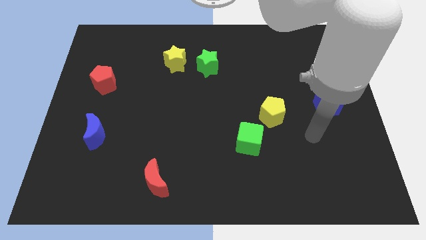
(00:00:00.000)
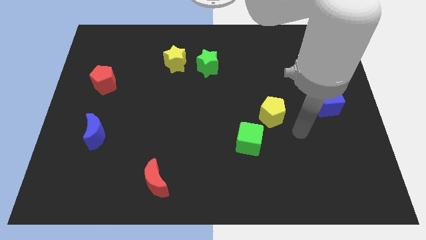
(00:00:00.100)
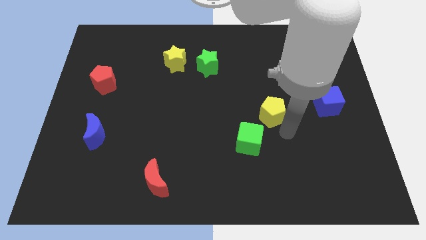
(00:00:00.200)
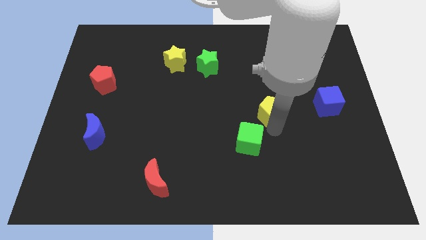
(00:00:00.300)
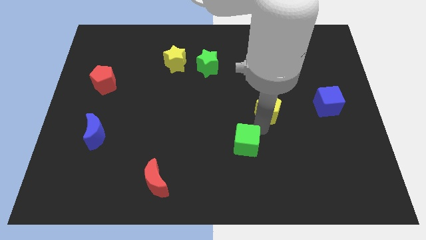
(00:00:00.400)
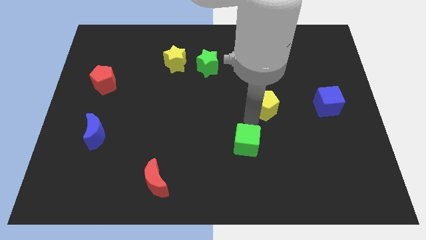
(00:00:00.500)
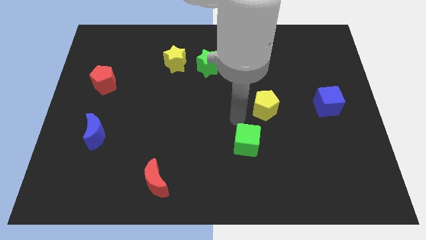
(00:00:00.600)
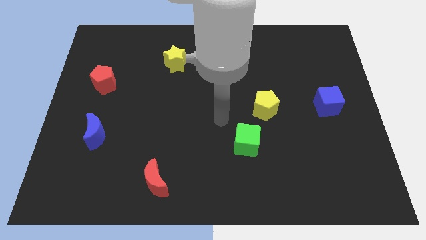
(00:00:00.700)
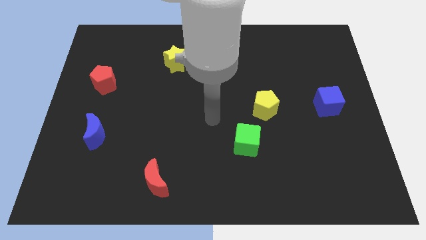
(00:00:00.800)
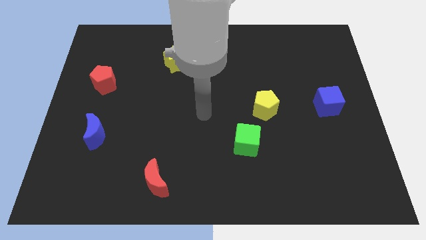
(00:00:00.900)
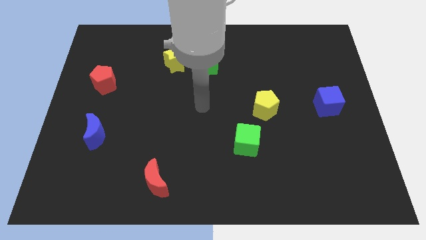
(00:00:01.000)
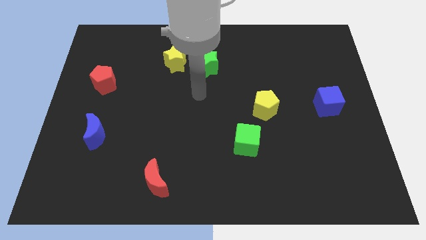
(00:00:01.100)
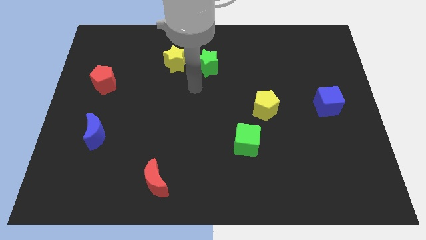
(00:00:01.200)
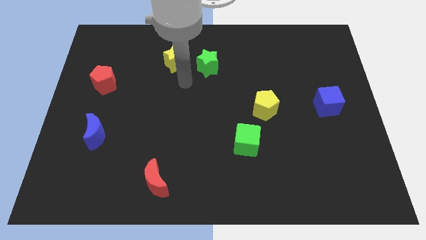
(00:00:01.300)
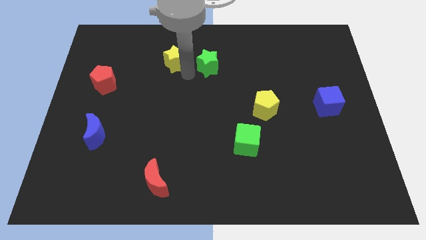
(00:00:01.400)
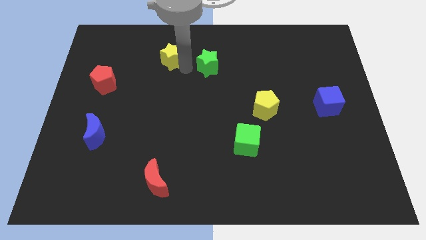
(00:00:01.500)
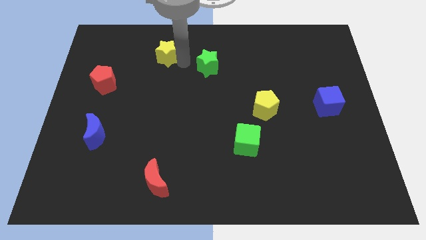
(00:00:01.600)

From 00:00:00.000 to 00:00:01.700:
pull the green star apart from the yellow star

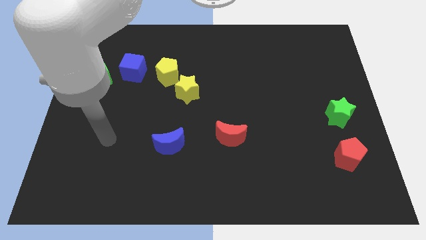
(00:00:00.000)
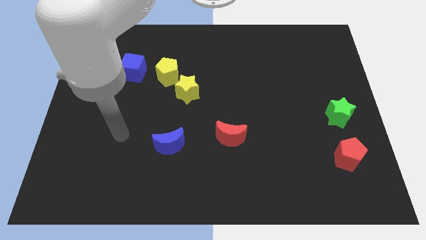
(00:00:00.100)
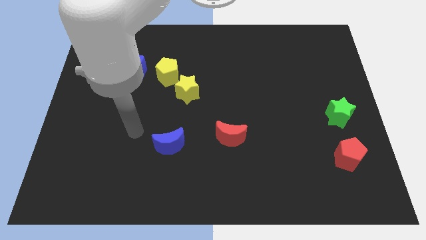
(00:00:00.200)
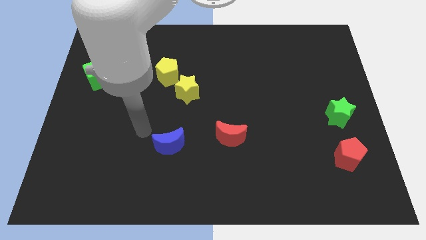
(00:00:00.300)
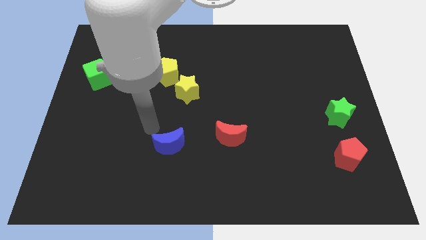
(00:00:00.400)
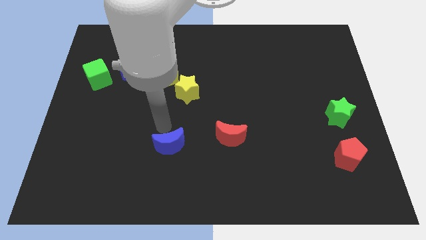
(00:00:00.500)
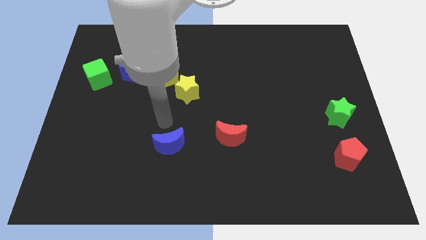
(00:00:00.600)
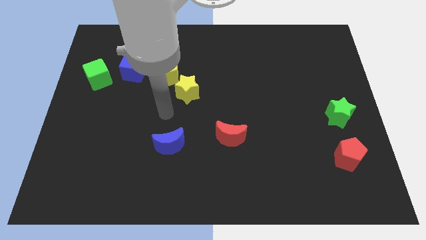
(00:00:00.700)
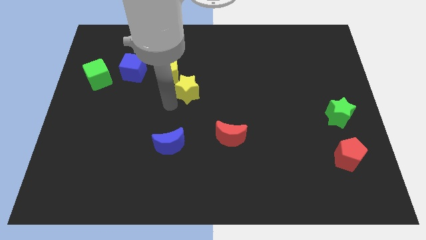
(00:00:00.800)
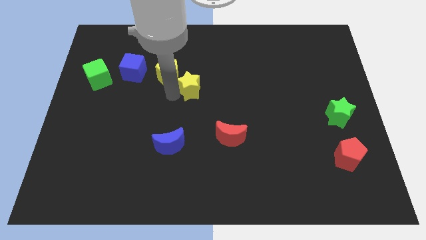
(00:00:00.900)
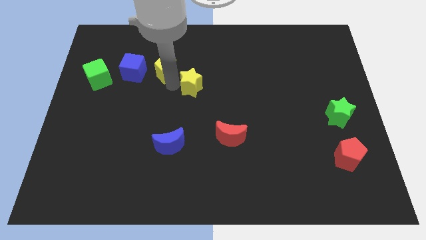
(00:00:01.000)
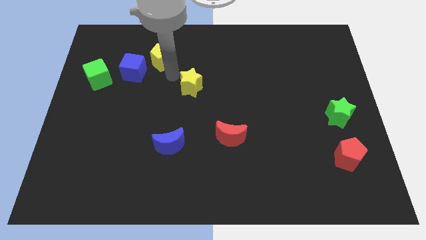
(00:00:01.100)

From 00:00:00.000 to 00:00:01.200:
pull the yellow star apart from the yellow pentagon

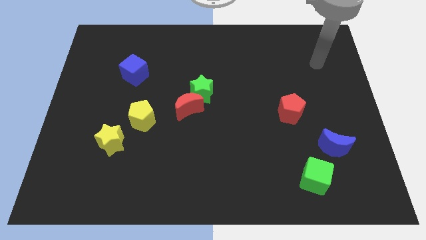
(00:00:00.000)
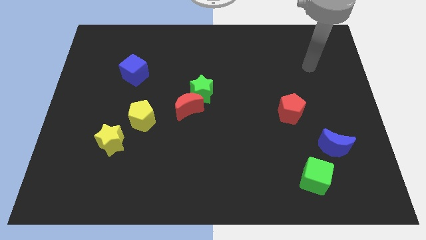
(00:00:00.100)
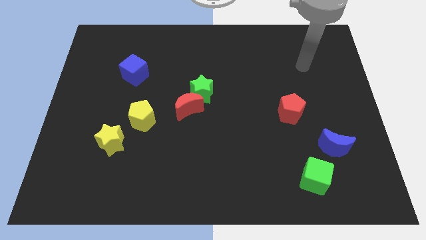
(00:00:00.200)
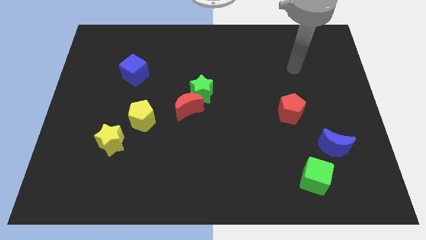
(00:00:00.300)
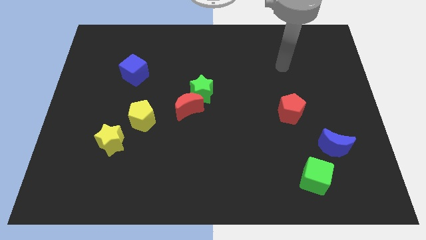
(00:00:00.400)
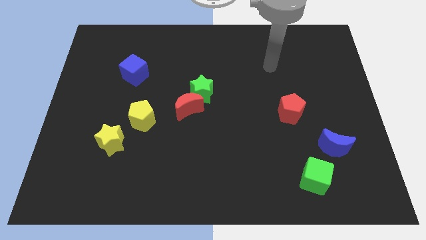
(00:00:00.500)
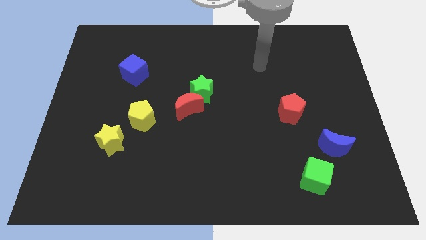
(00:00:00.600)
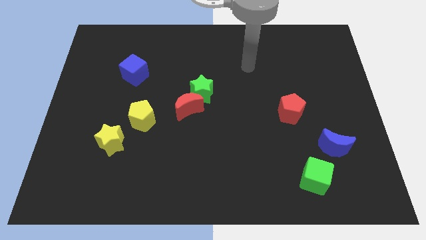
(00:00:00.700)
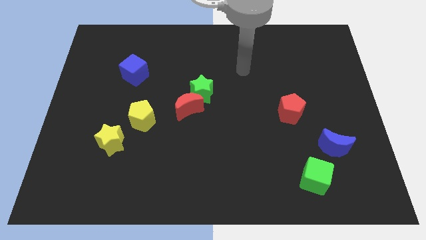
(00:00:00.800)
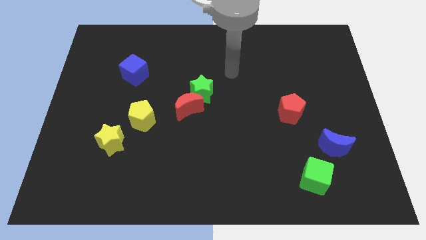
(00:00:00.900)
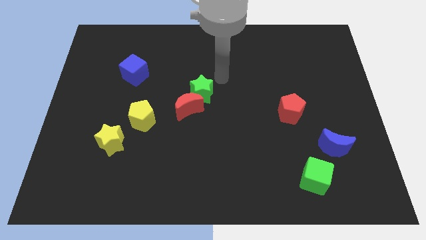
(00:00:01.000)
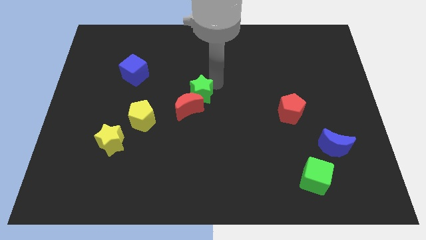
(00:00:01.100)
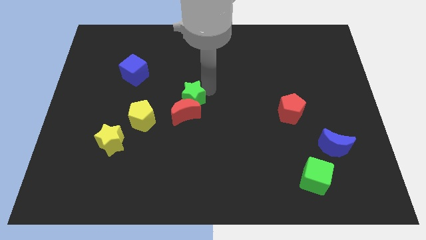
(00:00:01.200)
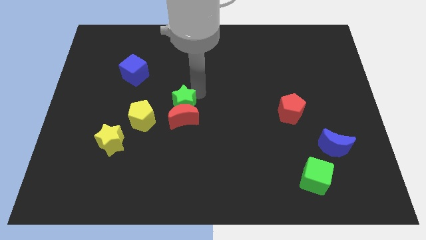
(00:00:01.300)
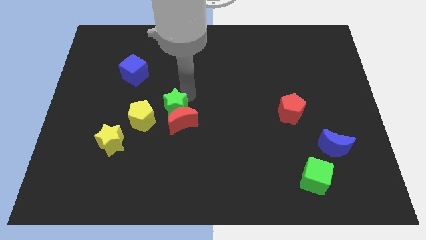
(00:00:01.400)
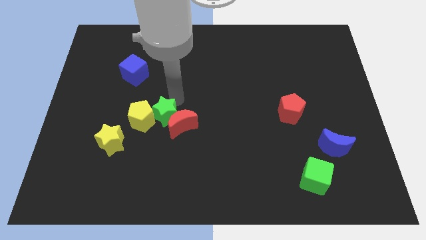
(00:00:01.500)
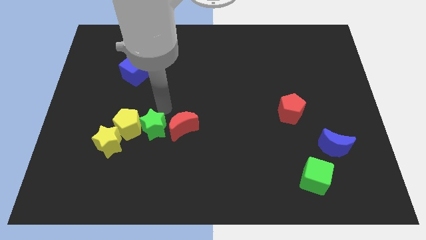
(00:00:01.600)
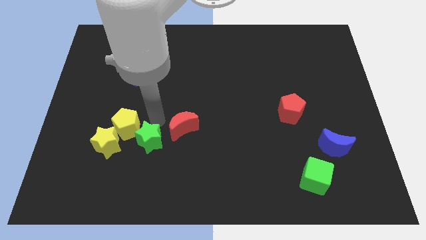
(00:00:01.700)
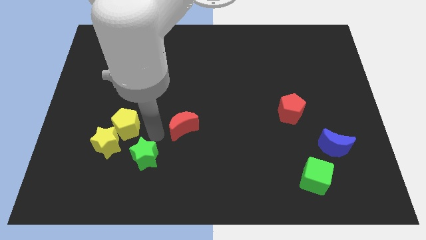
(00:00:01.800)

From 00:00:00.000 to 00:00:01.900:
separate the red moon from the green star

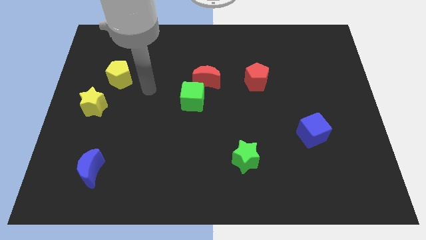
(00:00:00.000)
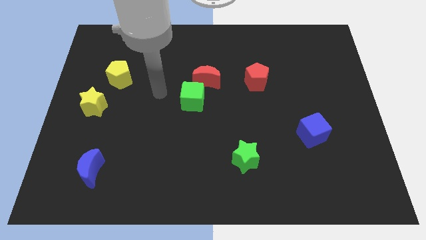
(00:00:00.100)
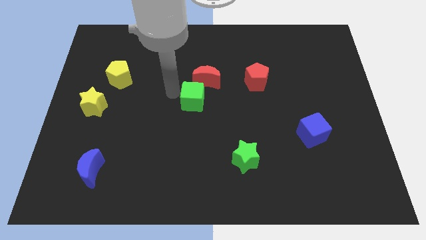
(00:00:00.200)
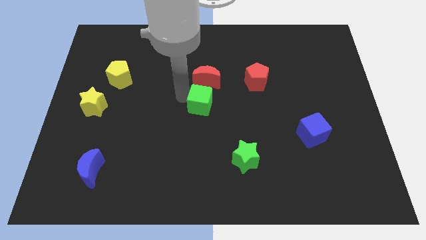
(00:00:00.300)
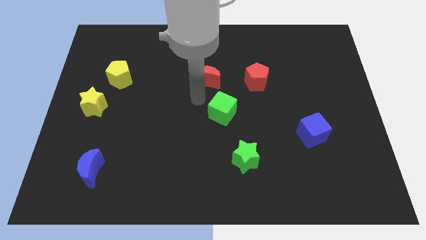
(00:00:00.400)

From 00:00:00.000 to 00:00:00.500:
move the red moon away from the green cube

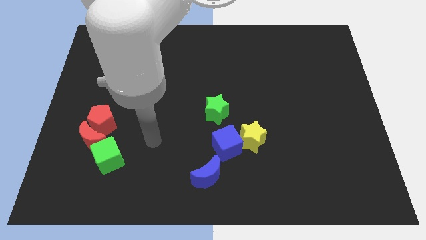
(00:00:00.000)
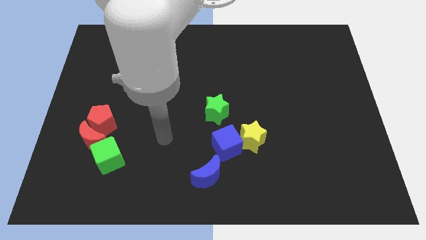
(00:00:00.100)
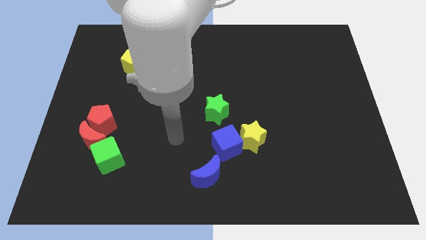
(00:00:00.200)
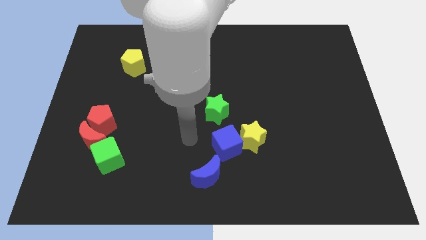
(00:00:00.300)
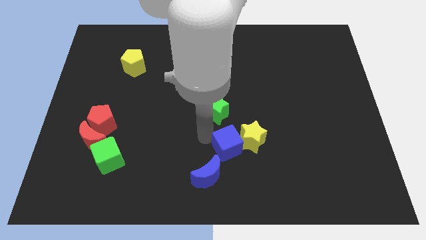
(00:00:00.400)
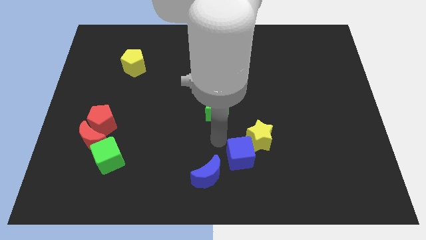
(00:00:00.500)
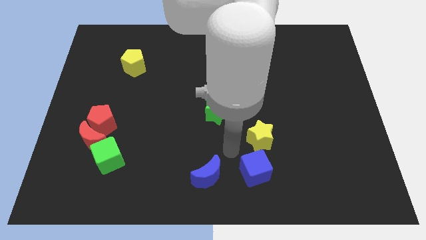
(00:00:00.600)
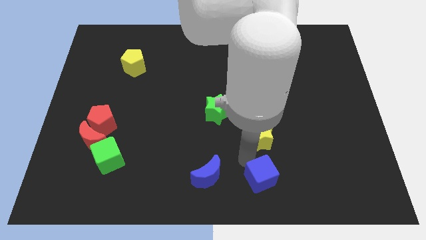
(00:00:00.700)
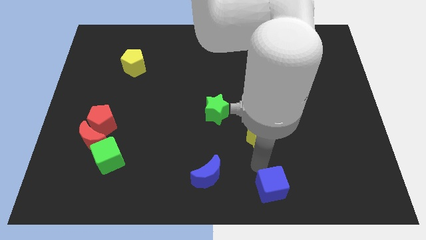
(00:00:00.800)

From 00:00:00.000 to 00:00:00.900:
separate the yellow star from the blue cube

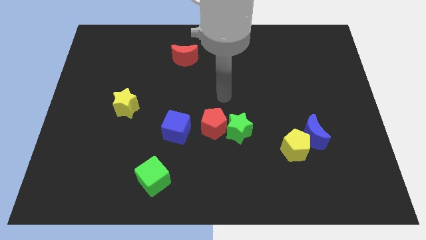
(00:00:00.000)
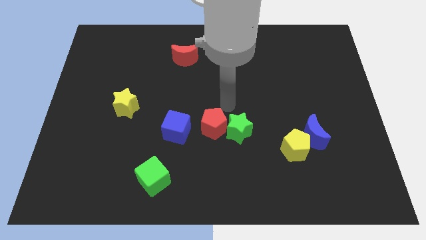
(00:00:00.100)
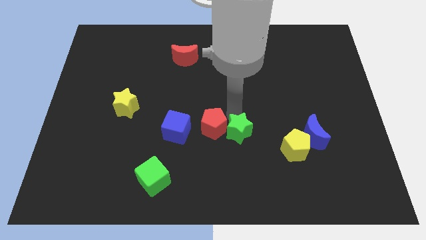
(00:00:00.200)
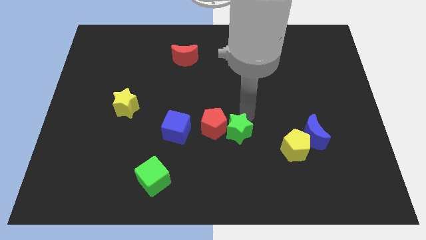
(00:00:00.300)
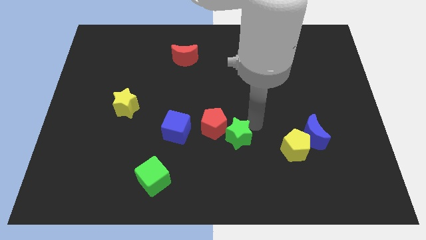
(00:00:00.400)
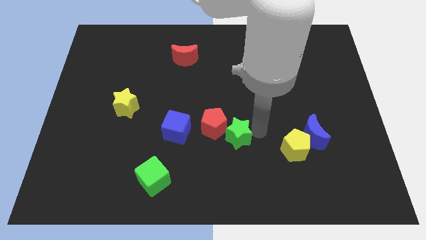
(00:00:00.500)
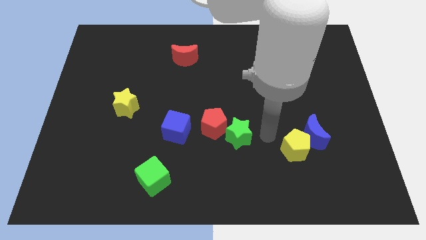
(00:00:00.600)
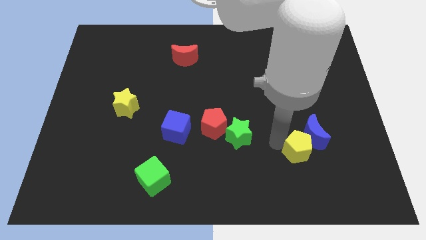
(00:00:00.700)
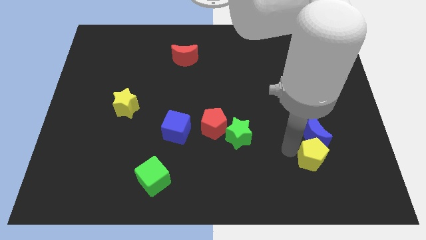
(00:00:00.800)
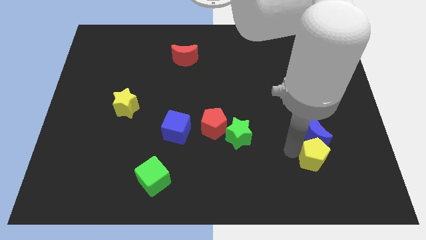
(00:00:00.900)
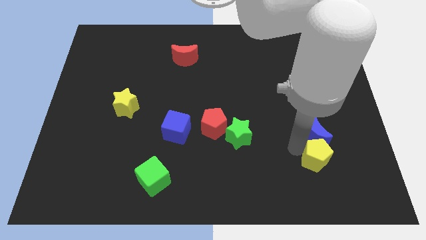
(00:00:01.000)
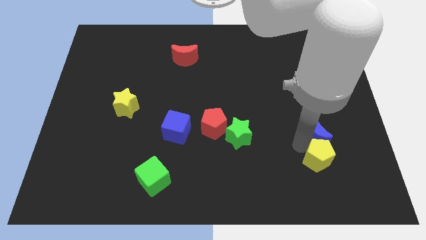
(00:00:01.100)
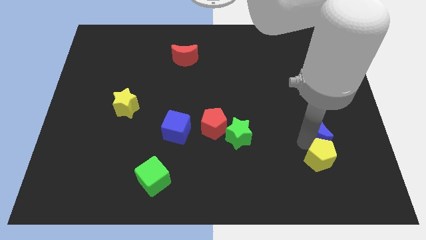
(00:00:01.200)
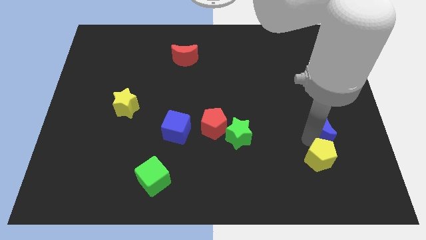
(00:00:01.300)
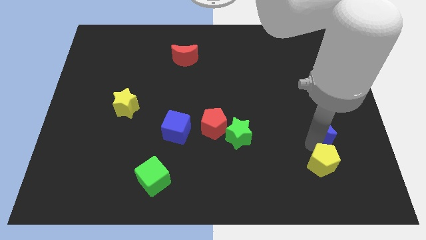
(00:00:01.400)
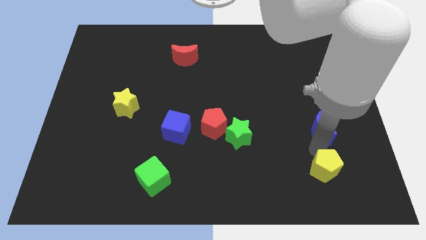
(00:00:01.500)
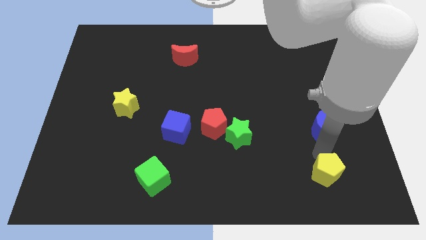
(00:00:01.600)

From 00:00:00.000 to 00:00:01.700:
separate the blue moon from the yellow pentagon

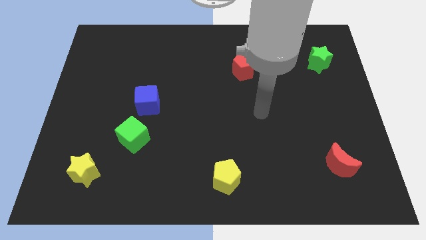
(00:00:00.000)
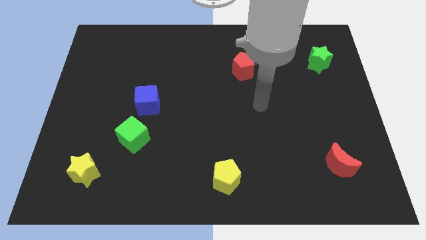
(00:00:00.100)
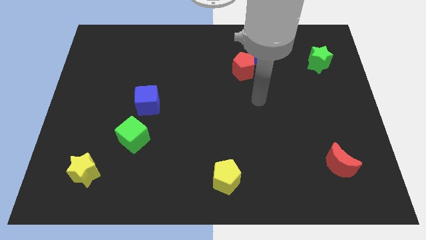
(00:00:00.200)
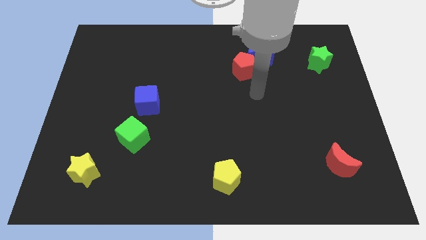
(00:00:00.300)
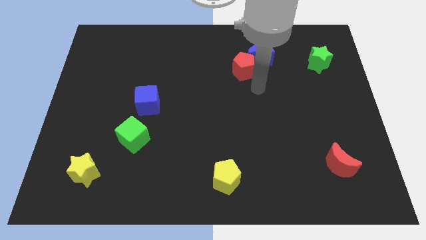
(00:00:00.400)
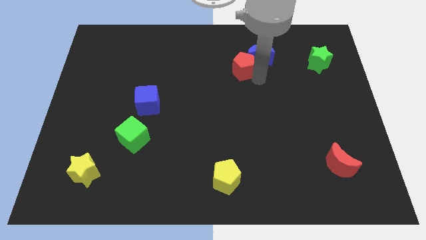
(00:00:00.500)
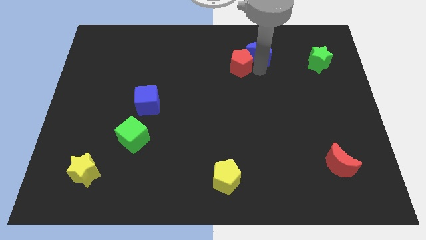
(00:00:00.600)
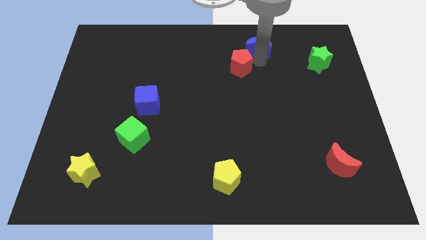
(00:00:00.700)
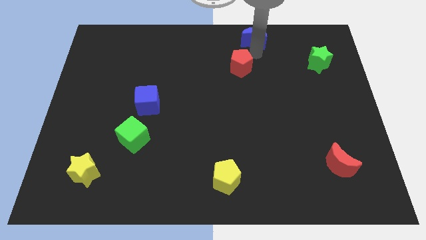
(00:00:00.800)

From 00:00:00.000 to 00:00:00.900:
move the red pentagon away from the blue moon

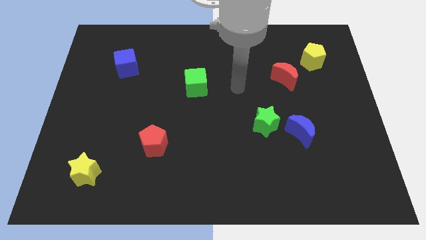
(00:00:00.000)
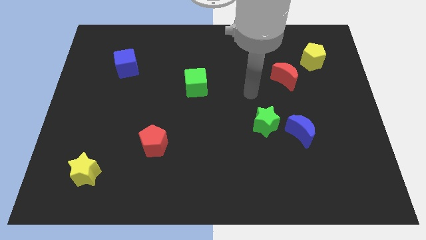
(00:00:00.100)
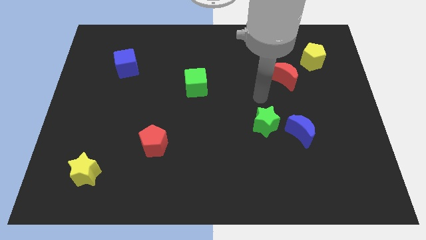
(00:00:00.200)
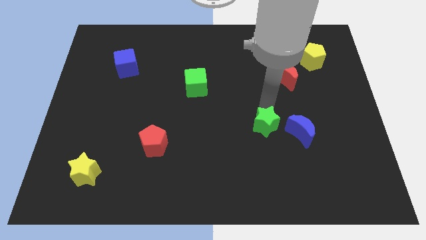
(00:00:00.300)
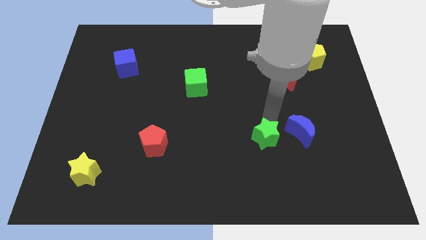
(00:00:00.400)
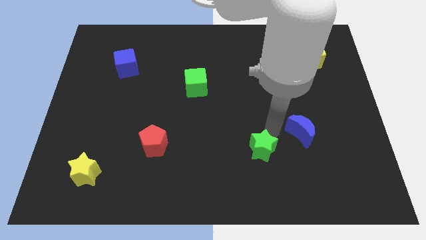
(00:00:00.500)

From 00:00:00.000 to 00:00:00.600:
pull the blue moon apart from the green star
